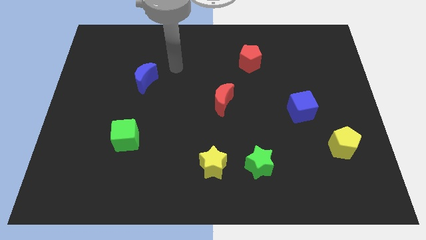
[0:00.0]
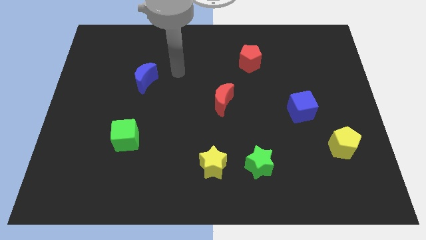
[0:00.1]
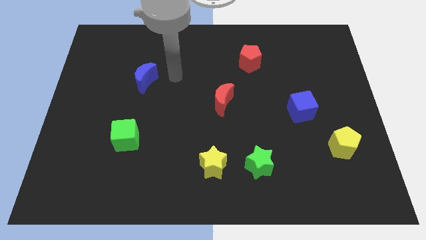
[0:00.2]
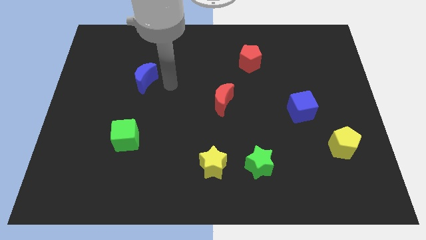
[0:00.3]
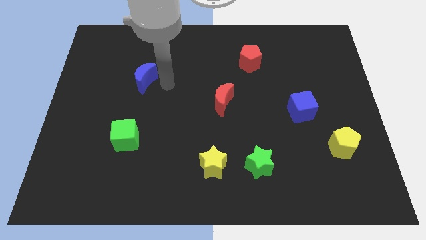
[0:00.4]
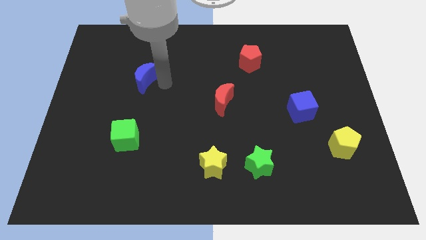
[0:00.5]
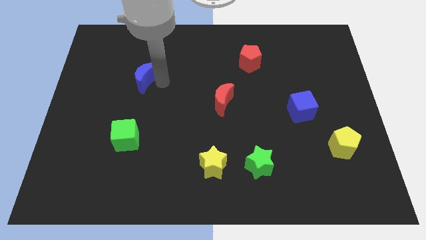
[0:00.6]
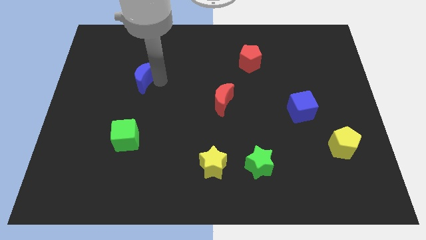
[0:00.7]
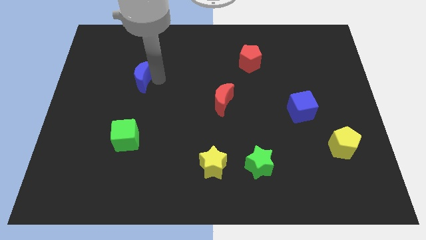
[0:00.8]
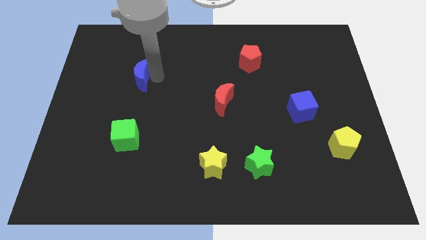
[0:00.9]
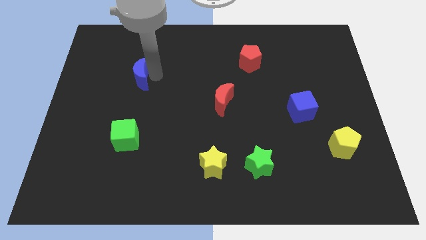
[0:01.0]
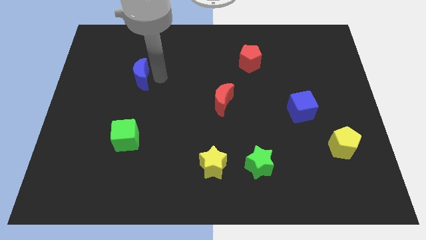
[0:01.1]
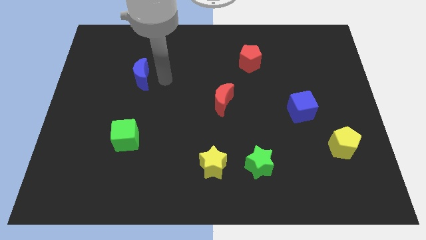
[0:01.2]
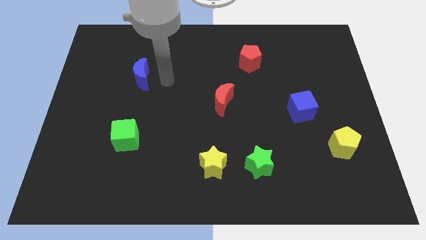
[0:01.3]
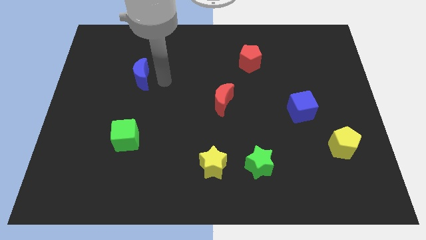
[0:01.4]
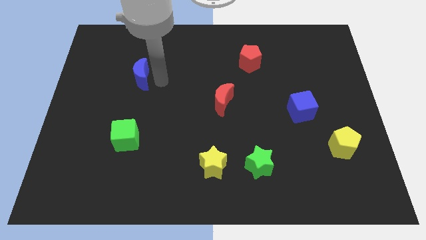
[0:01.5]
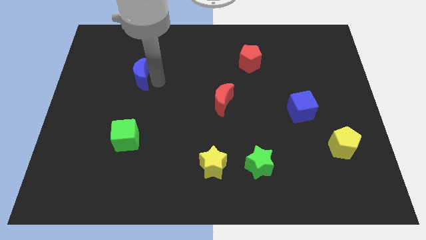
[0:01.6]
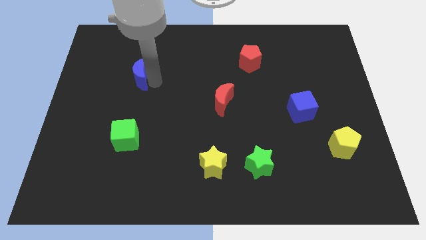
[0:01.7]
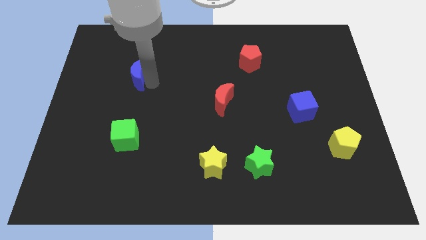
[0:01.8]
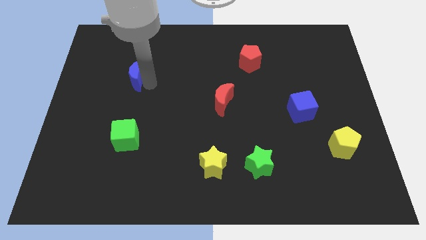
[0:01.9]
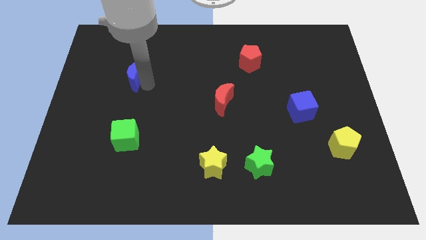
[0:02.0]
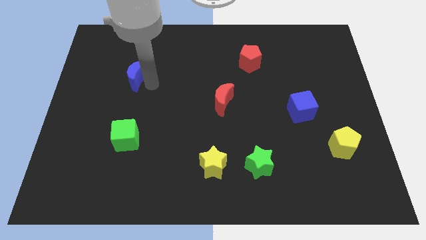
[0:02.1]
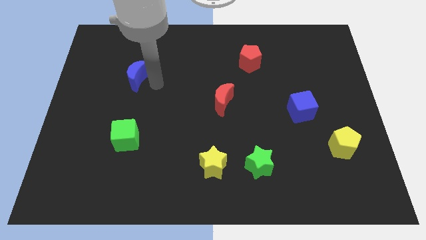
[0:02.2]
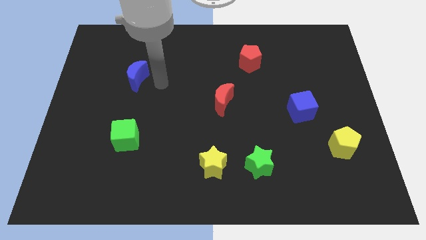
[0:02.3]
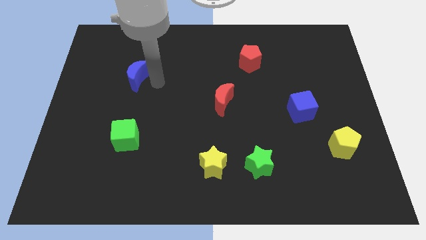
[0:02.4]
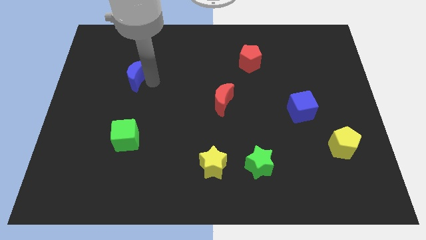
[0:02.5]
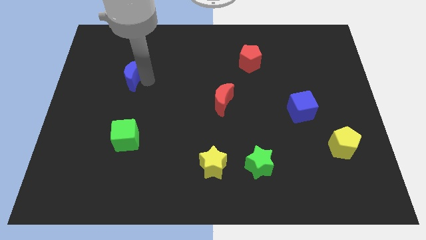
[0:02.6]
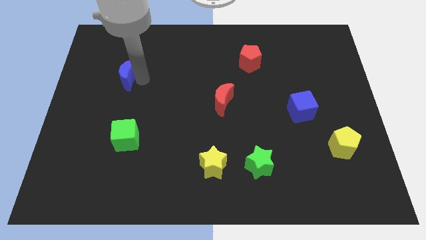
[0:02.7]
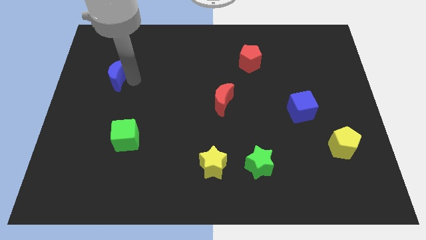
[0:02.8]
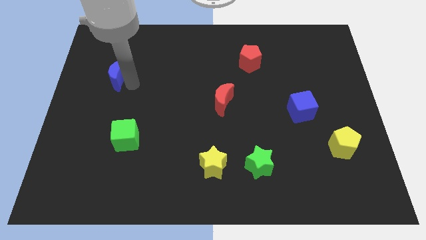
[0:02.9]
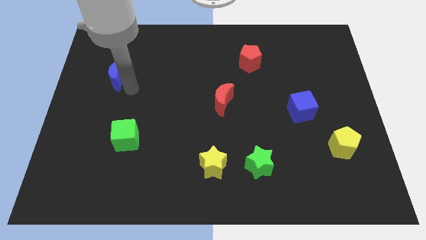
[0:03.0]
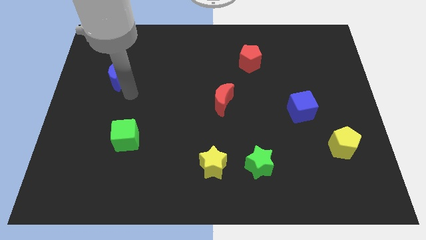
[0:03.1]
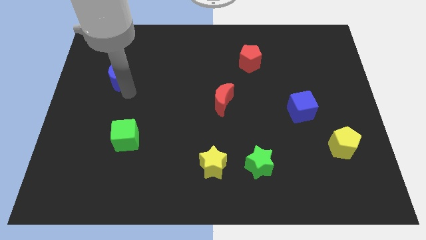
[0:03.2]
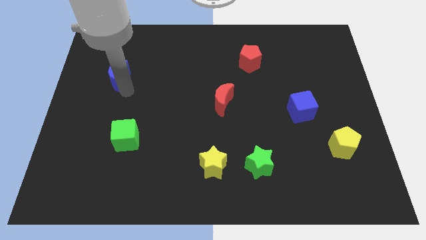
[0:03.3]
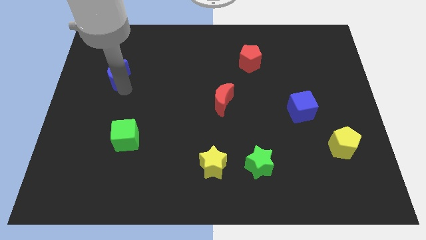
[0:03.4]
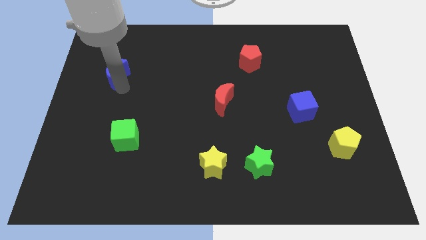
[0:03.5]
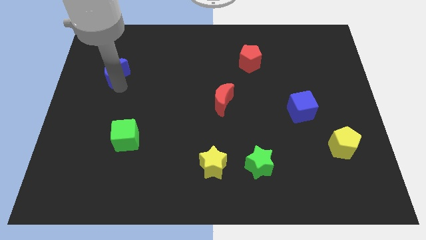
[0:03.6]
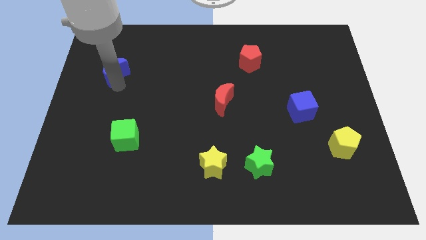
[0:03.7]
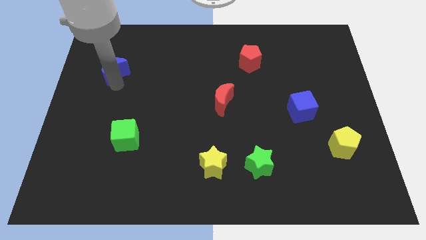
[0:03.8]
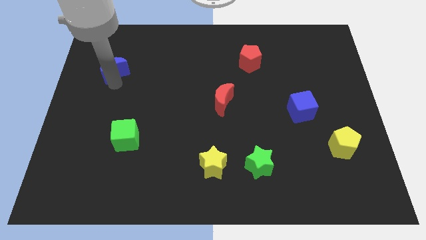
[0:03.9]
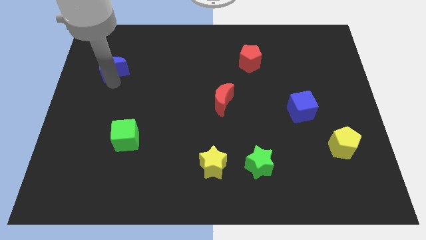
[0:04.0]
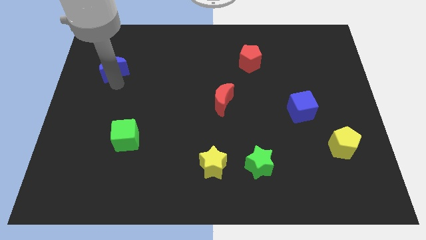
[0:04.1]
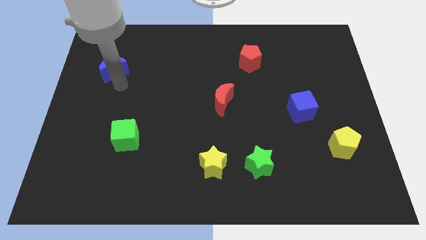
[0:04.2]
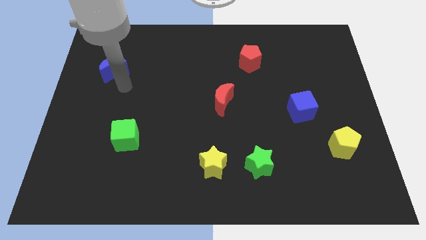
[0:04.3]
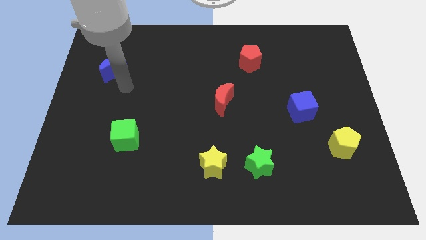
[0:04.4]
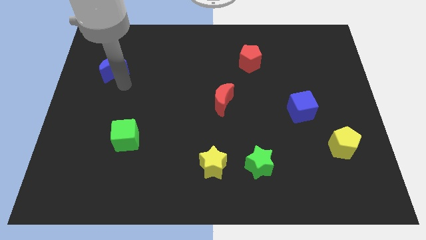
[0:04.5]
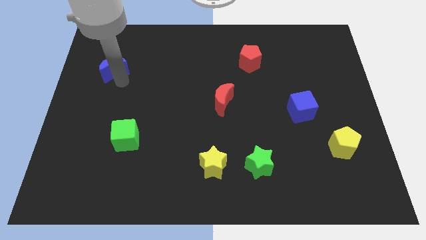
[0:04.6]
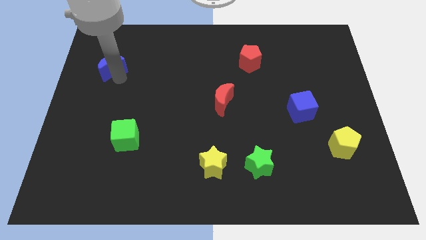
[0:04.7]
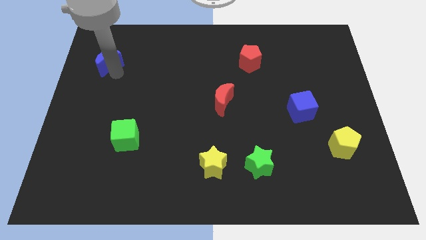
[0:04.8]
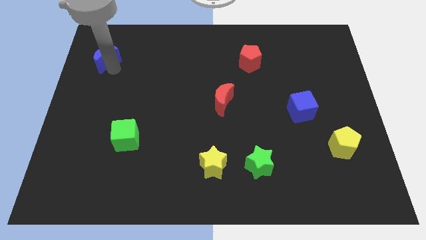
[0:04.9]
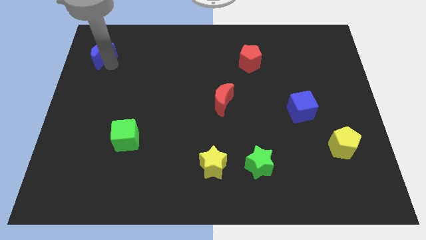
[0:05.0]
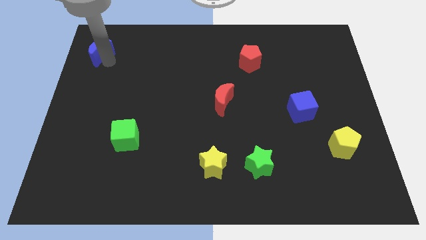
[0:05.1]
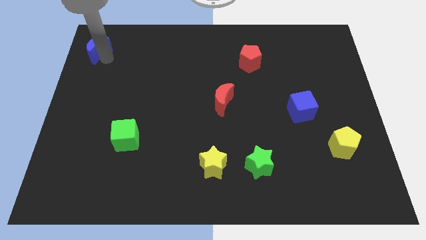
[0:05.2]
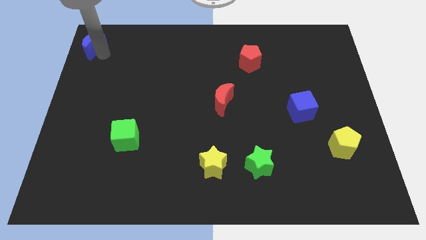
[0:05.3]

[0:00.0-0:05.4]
move the blue moon to the top left of the board

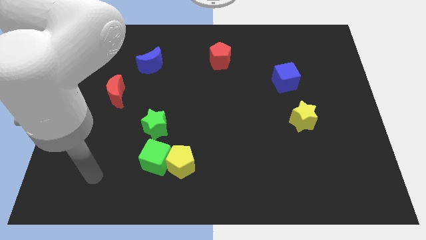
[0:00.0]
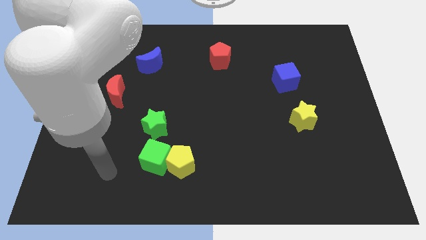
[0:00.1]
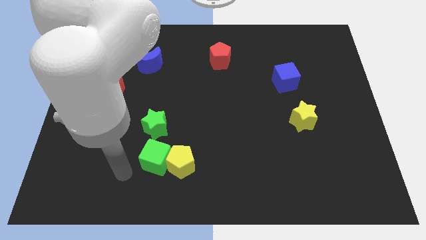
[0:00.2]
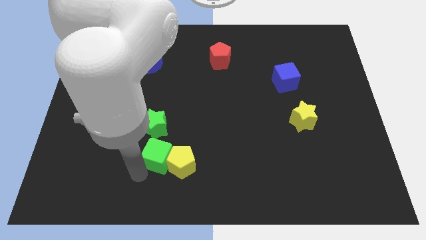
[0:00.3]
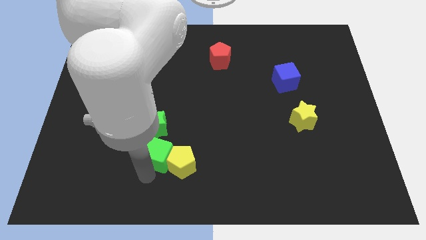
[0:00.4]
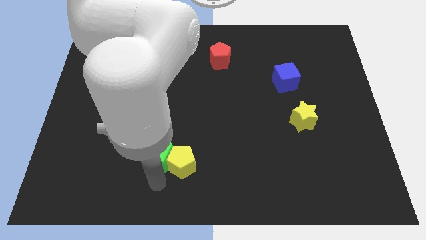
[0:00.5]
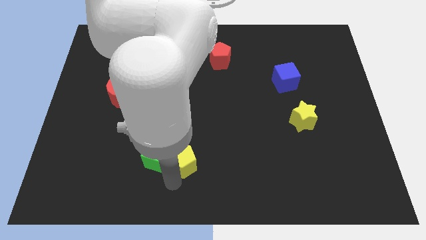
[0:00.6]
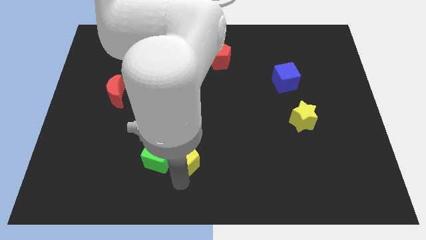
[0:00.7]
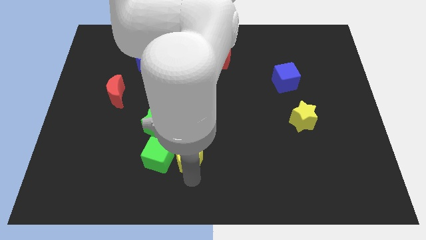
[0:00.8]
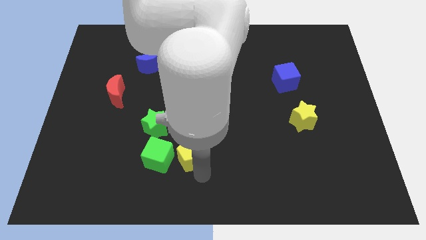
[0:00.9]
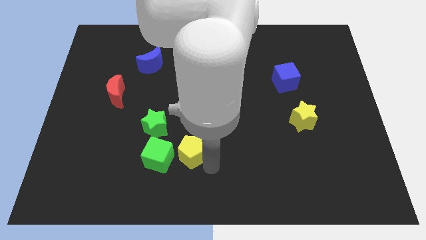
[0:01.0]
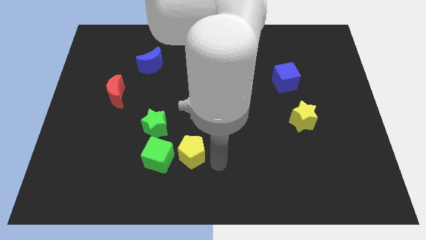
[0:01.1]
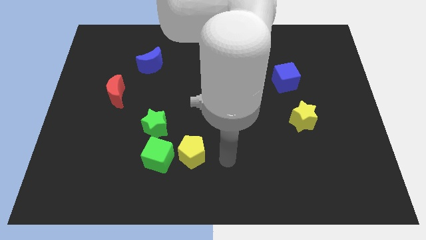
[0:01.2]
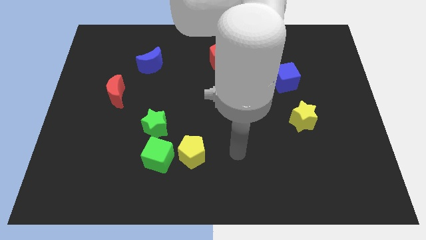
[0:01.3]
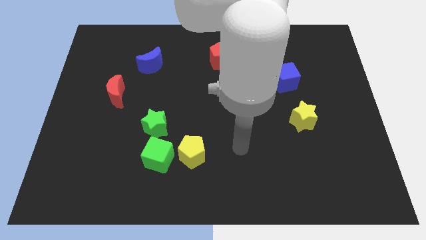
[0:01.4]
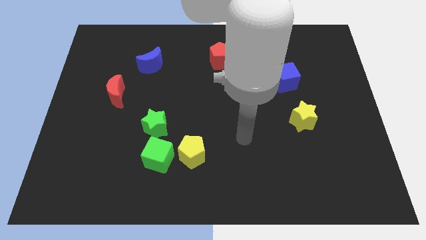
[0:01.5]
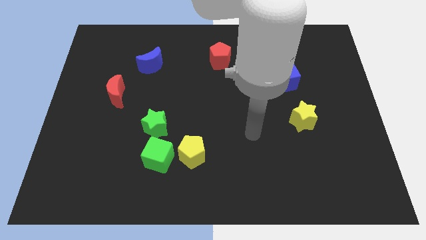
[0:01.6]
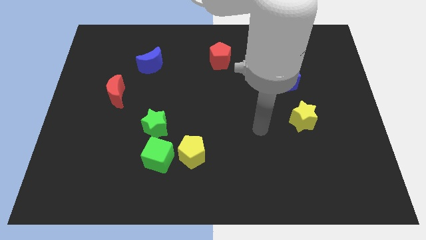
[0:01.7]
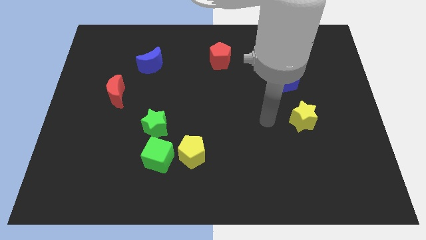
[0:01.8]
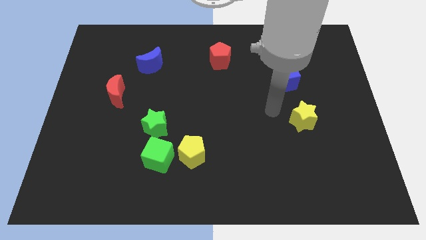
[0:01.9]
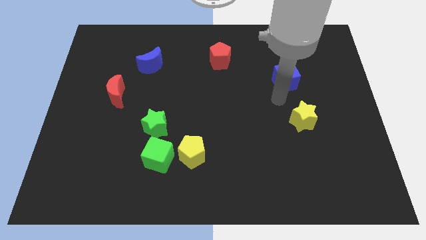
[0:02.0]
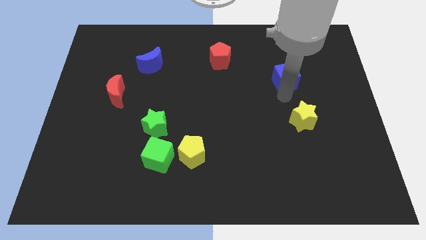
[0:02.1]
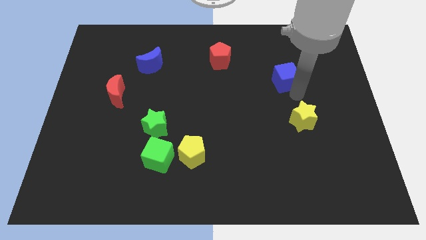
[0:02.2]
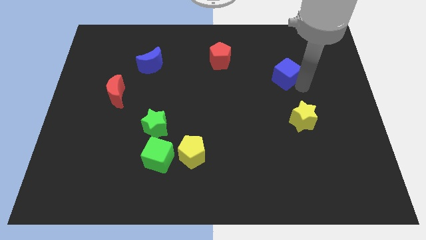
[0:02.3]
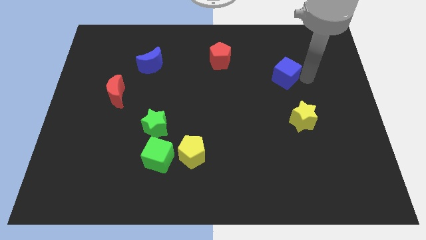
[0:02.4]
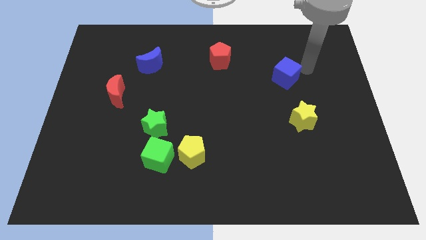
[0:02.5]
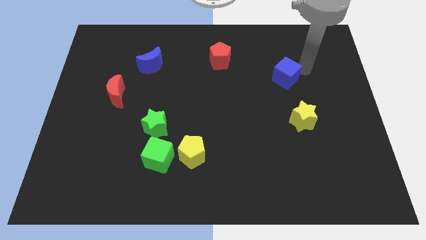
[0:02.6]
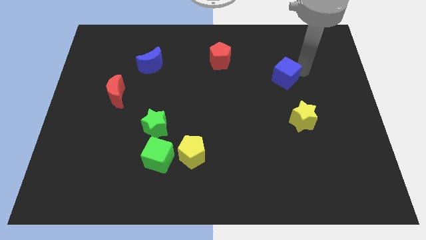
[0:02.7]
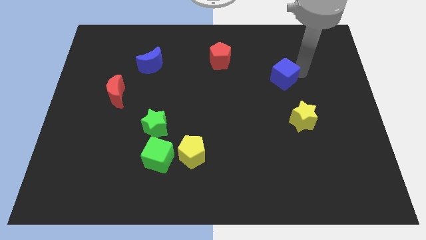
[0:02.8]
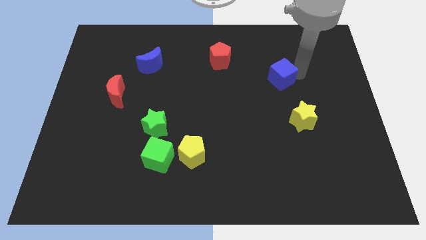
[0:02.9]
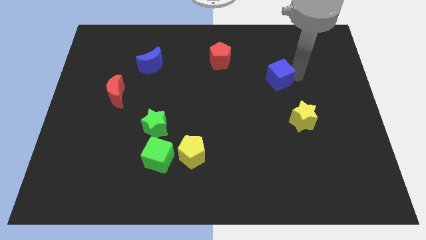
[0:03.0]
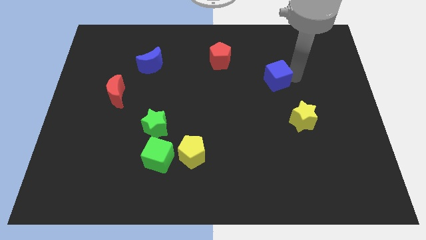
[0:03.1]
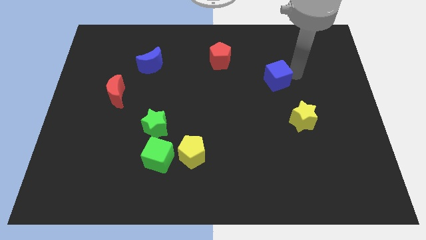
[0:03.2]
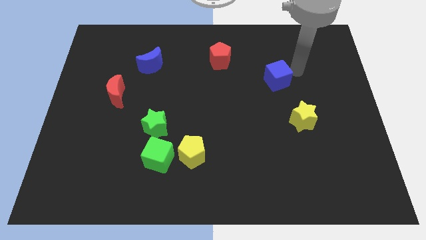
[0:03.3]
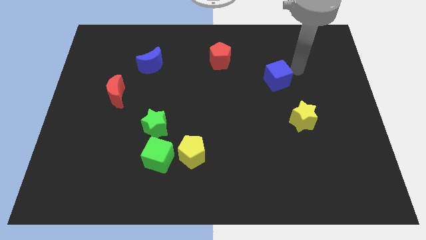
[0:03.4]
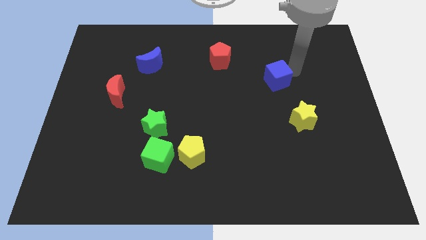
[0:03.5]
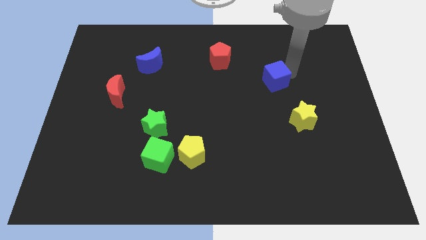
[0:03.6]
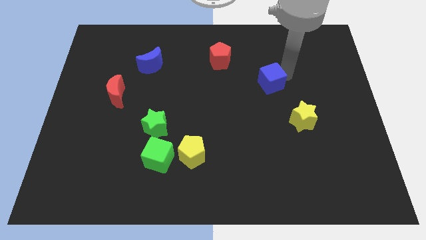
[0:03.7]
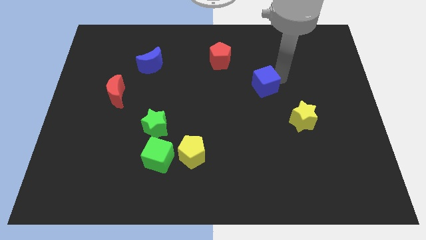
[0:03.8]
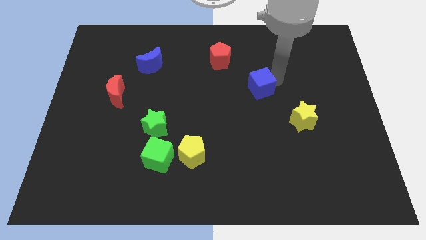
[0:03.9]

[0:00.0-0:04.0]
push the blue cube to the middle of the board
